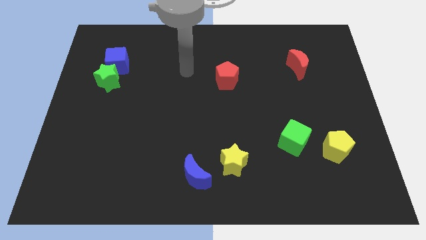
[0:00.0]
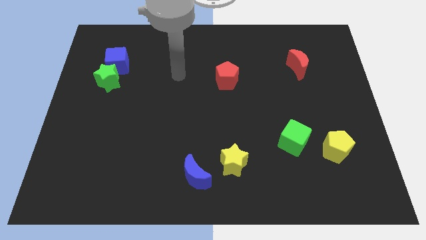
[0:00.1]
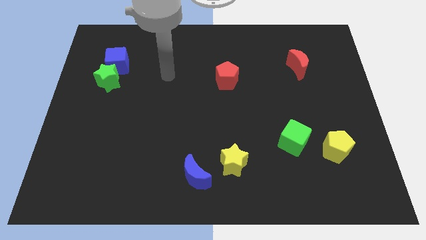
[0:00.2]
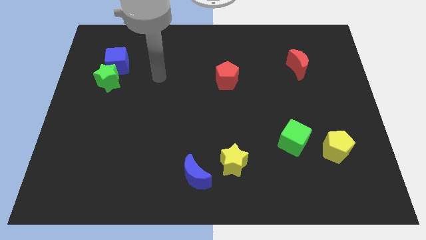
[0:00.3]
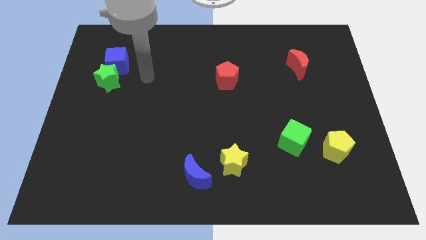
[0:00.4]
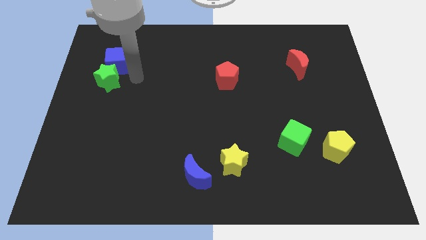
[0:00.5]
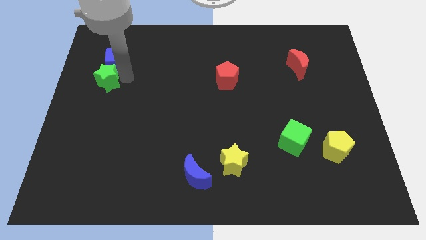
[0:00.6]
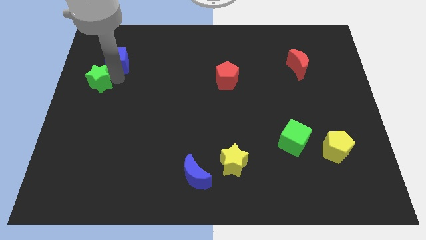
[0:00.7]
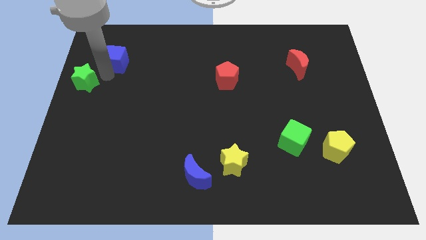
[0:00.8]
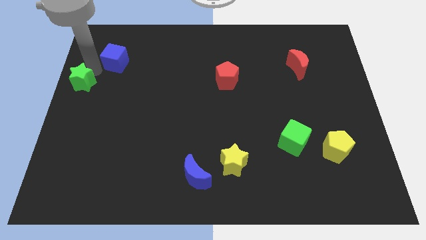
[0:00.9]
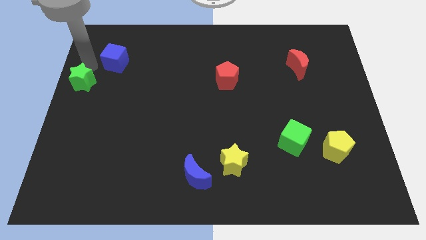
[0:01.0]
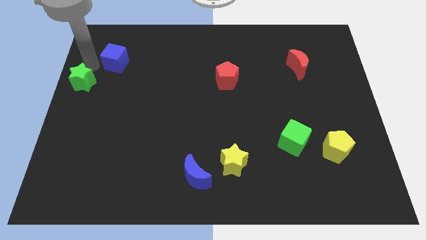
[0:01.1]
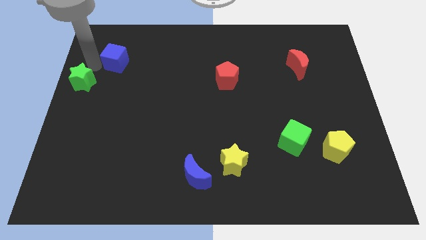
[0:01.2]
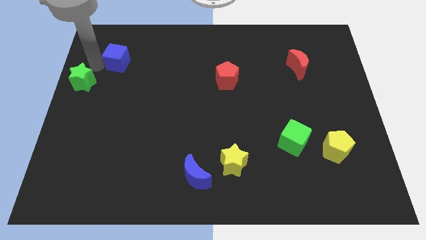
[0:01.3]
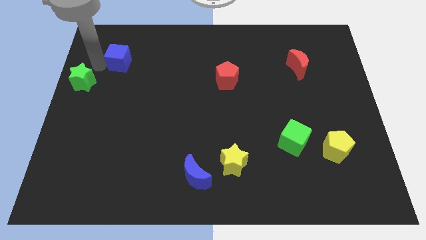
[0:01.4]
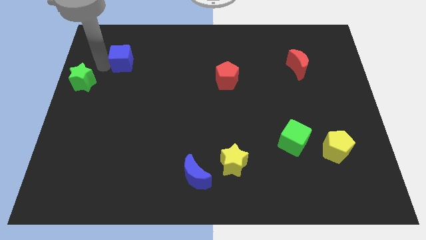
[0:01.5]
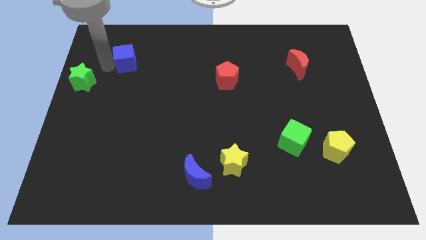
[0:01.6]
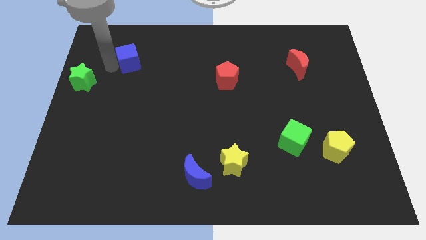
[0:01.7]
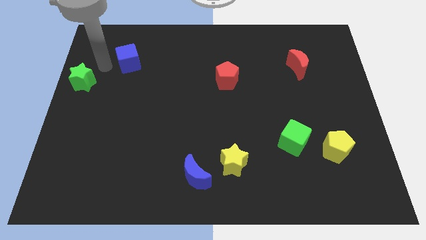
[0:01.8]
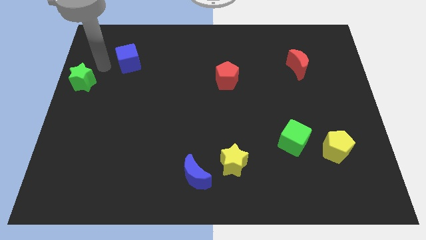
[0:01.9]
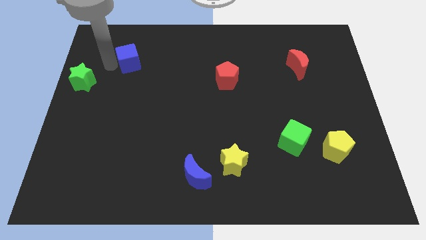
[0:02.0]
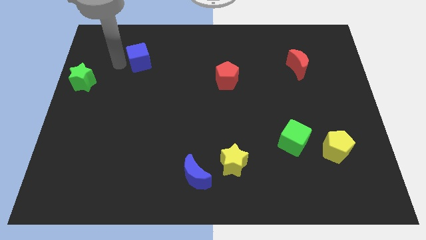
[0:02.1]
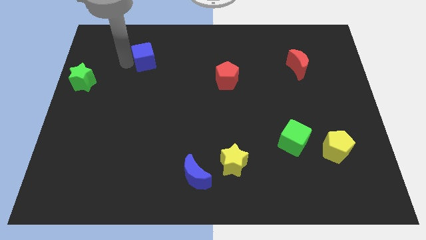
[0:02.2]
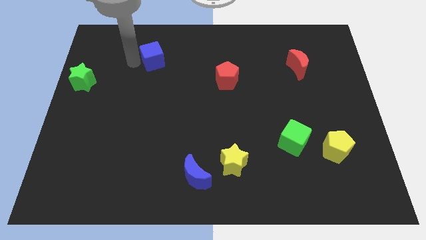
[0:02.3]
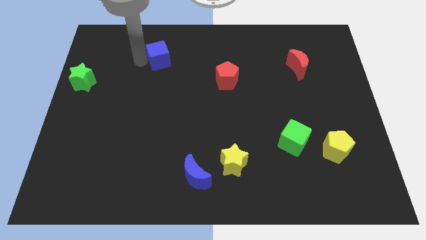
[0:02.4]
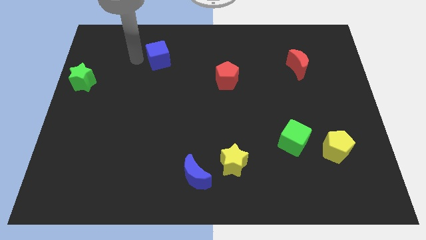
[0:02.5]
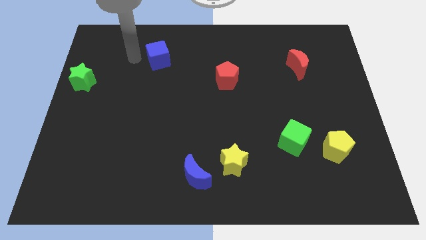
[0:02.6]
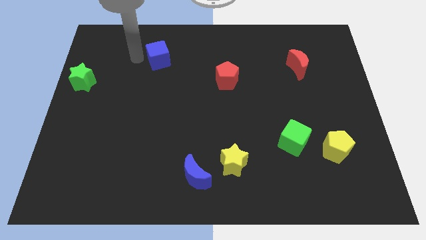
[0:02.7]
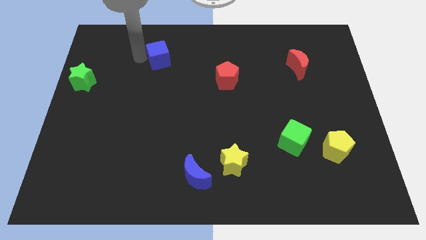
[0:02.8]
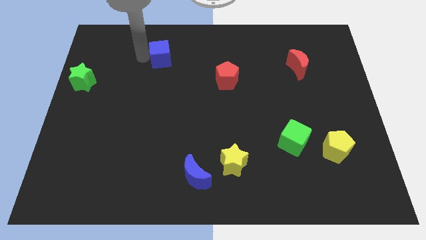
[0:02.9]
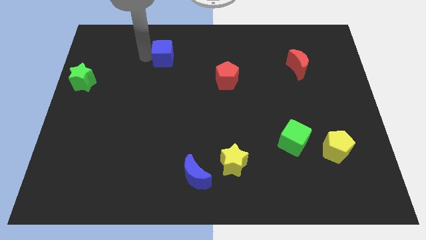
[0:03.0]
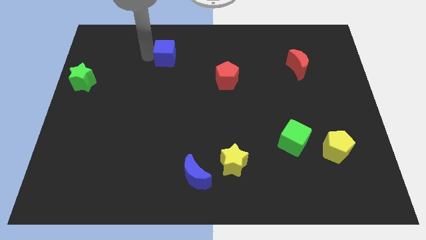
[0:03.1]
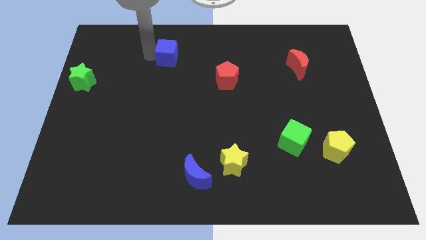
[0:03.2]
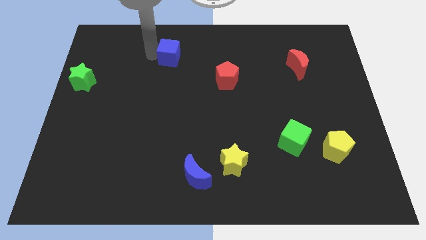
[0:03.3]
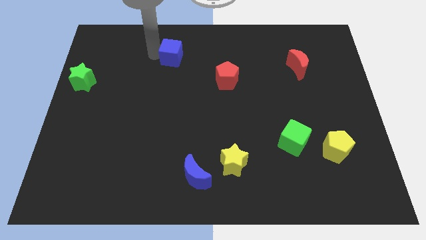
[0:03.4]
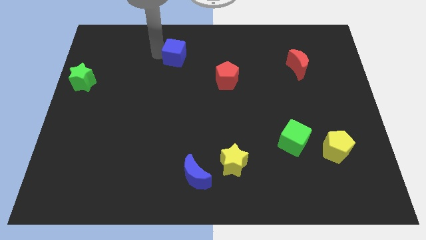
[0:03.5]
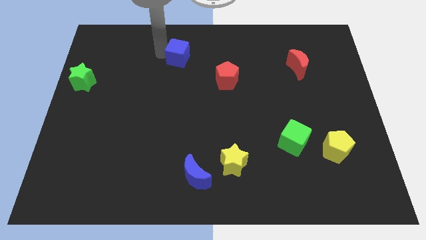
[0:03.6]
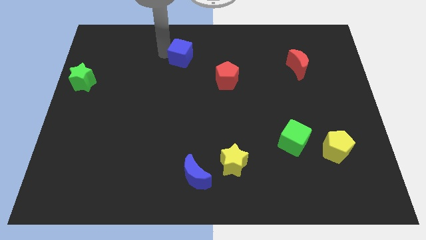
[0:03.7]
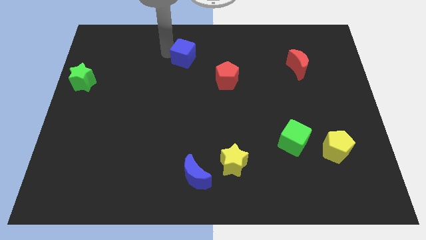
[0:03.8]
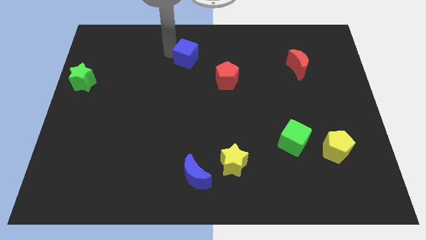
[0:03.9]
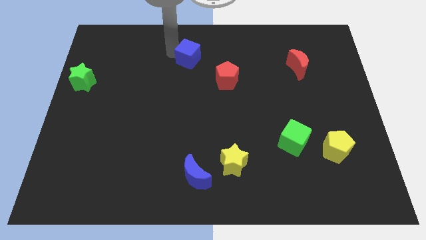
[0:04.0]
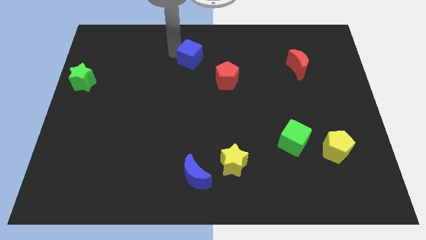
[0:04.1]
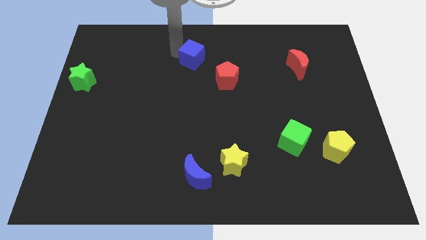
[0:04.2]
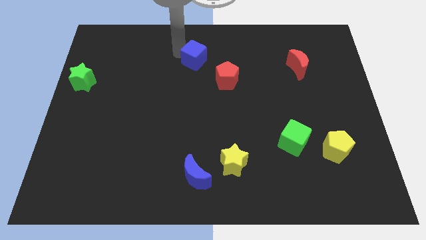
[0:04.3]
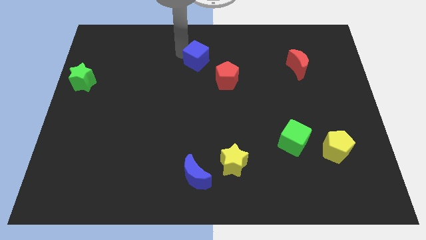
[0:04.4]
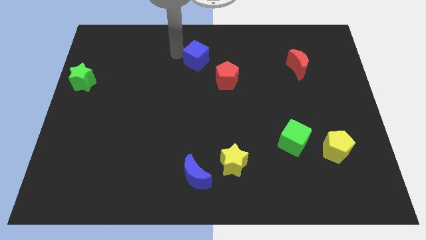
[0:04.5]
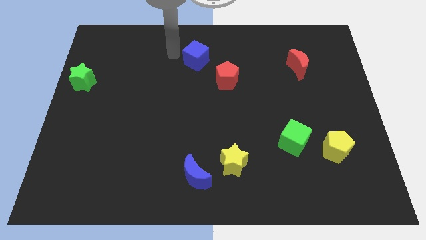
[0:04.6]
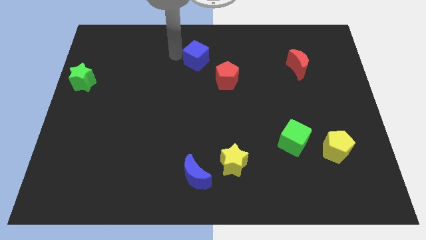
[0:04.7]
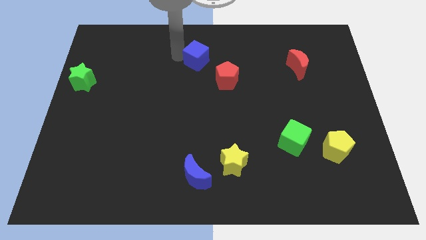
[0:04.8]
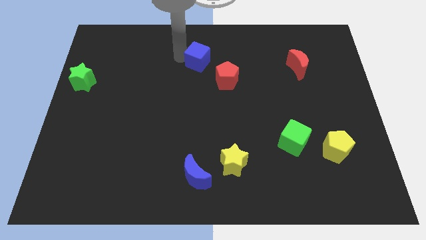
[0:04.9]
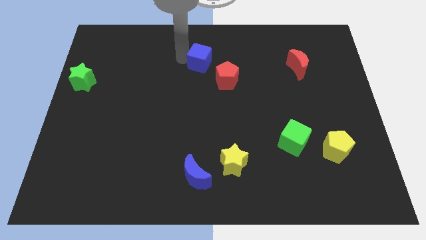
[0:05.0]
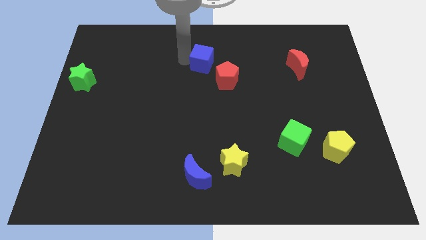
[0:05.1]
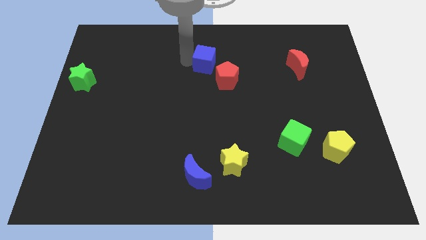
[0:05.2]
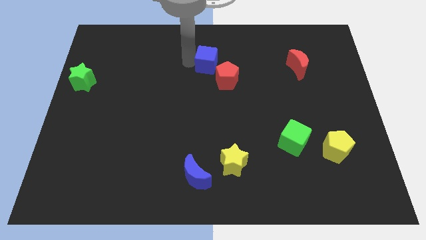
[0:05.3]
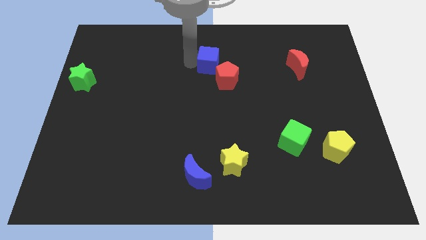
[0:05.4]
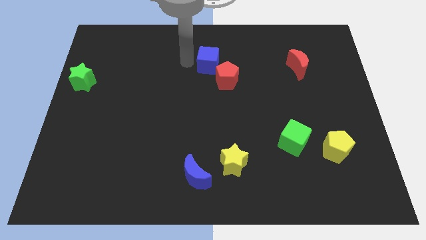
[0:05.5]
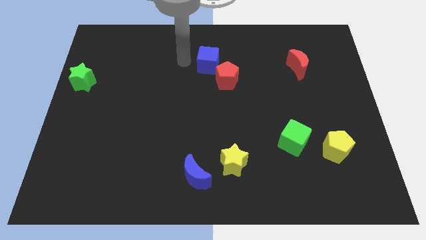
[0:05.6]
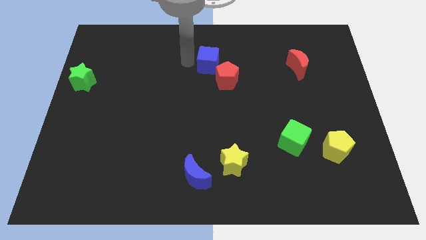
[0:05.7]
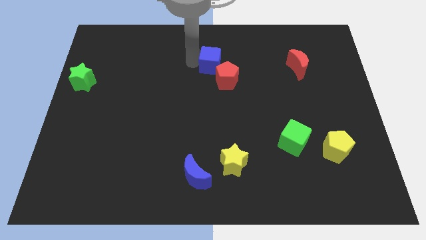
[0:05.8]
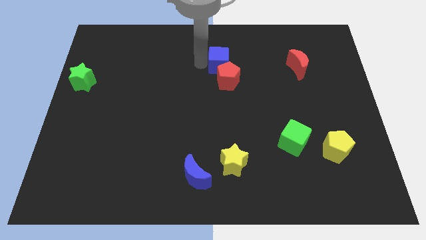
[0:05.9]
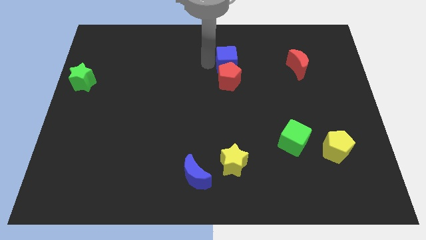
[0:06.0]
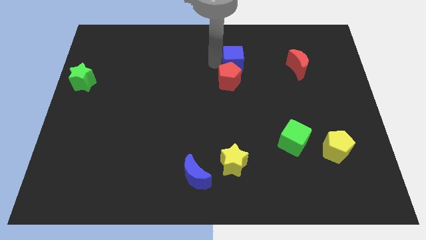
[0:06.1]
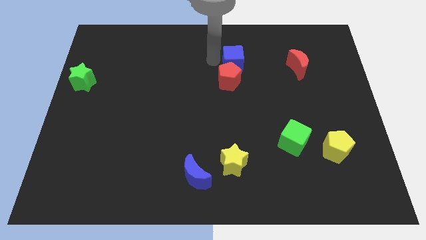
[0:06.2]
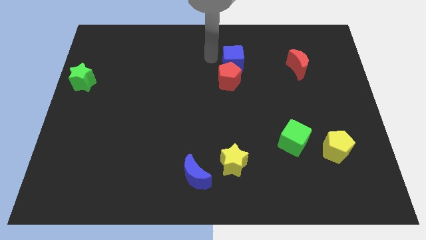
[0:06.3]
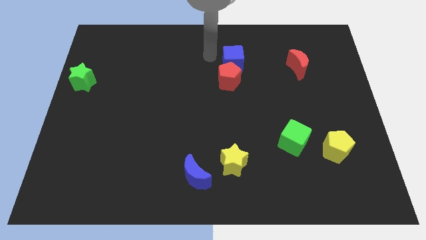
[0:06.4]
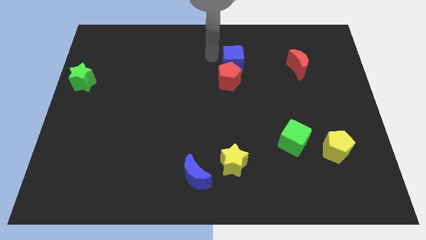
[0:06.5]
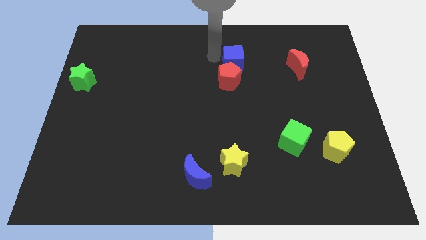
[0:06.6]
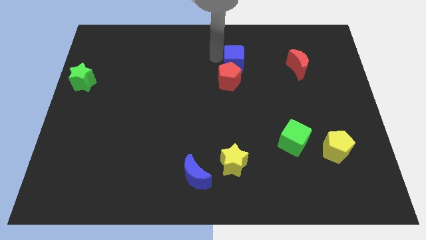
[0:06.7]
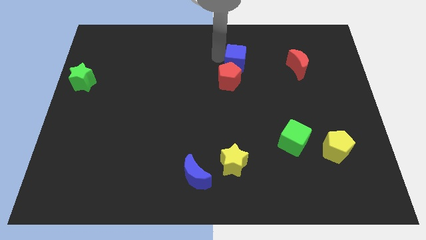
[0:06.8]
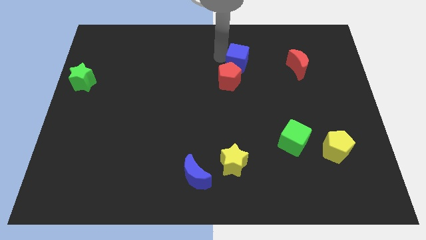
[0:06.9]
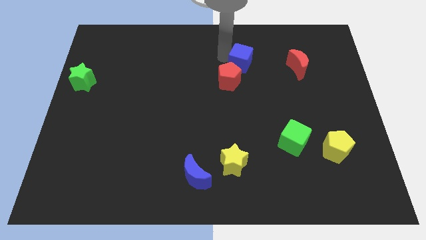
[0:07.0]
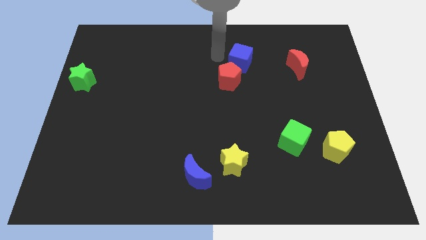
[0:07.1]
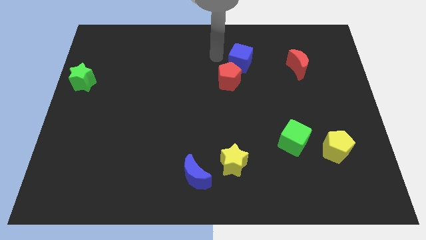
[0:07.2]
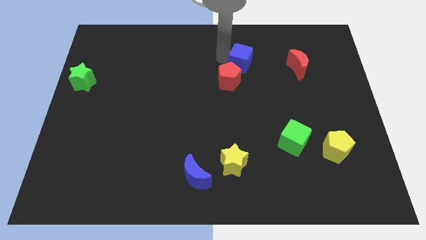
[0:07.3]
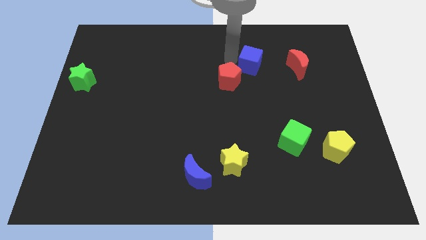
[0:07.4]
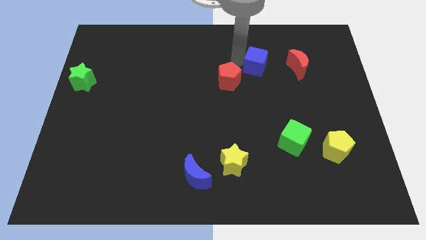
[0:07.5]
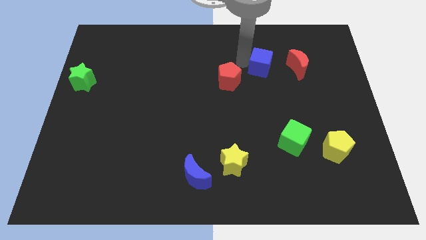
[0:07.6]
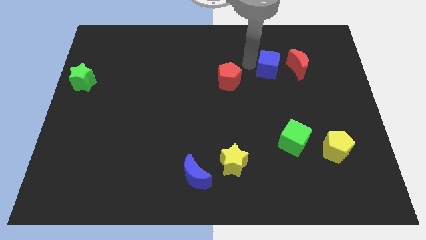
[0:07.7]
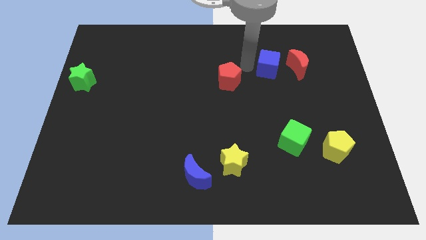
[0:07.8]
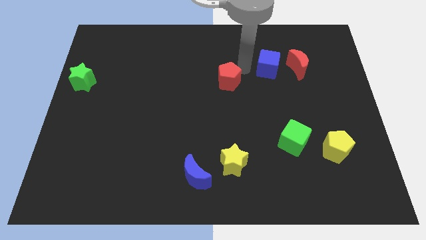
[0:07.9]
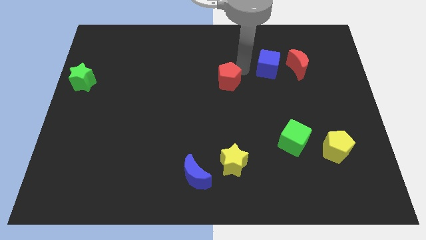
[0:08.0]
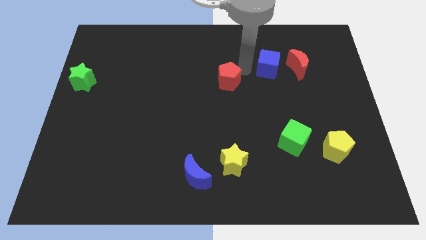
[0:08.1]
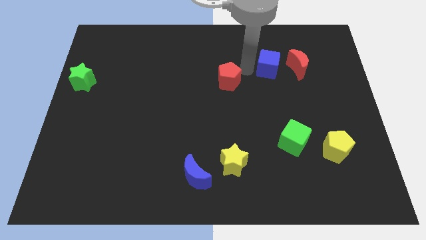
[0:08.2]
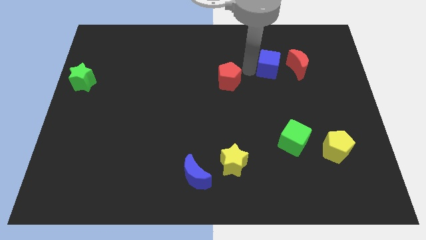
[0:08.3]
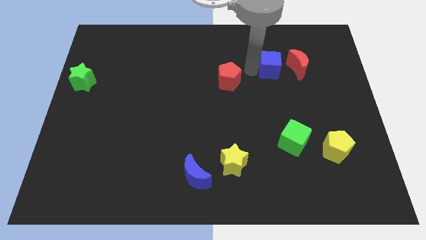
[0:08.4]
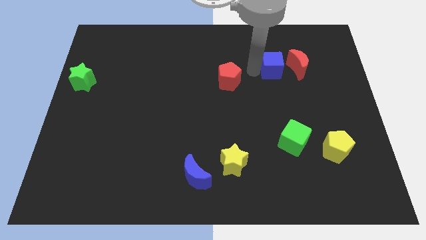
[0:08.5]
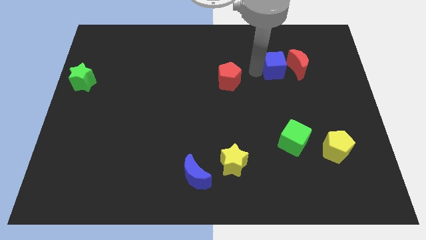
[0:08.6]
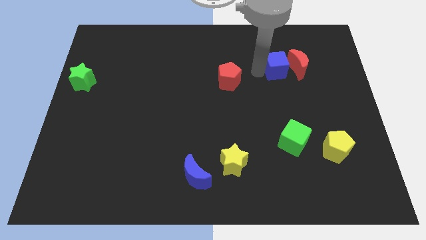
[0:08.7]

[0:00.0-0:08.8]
push the blue cube next to the red moon
